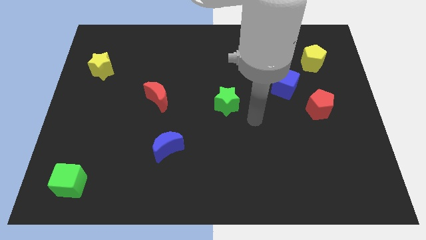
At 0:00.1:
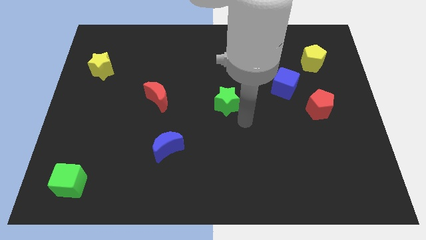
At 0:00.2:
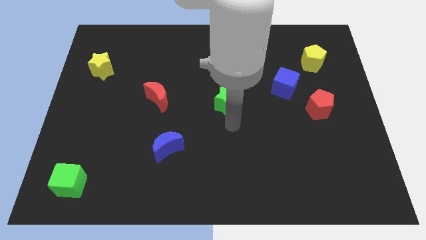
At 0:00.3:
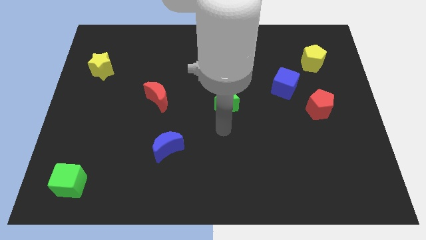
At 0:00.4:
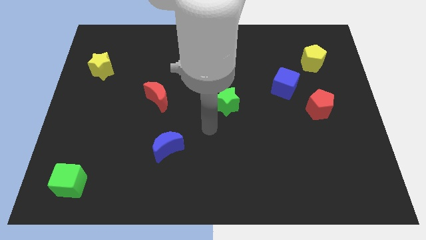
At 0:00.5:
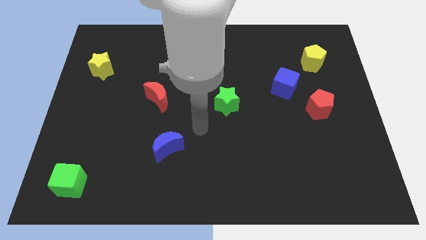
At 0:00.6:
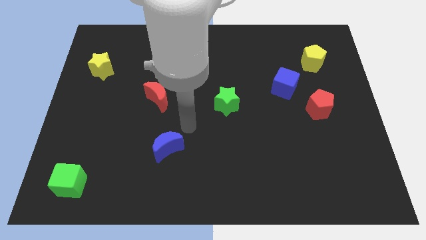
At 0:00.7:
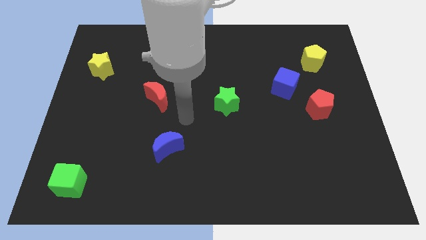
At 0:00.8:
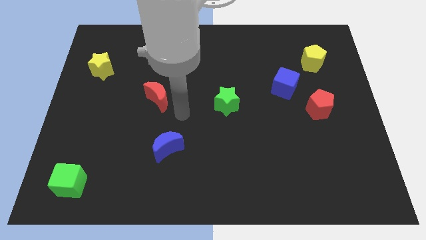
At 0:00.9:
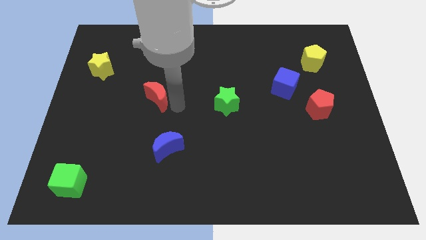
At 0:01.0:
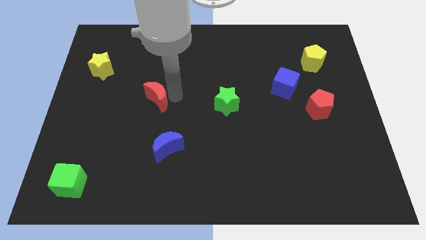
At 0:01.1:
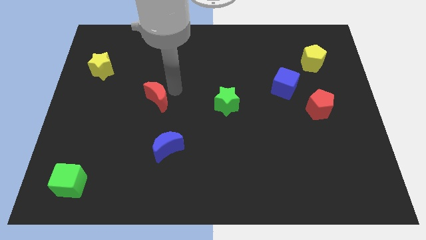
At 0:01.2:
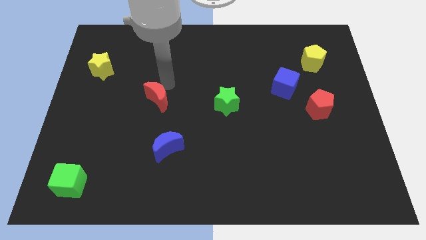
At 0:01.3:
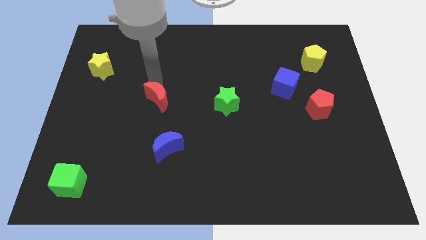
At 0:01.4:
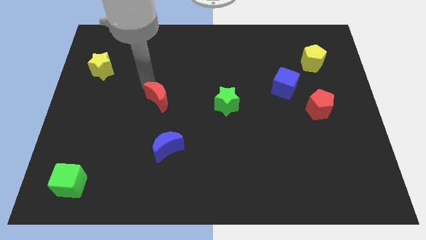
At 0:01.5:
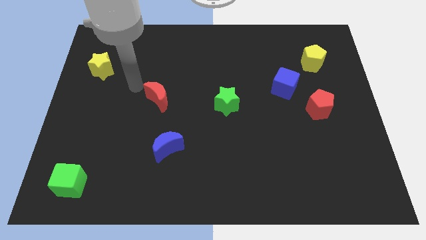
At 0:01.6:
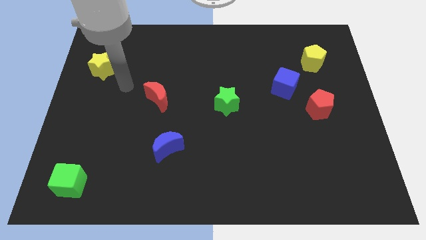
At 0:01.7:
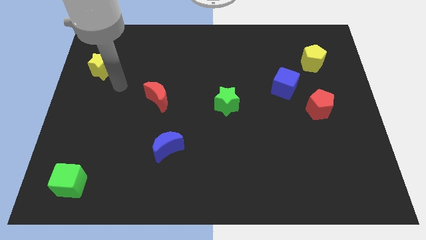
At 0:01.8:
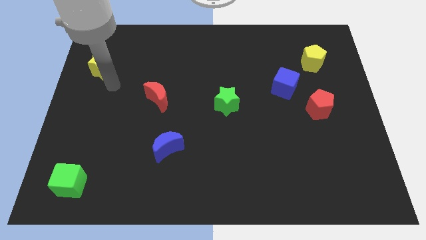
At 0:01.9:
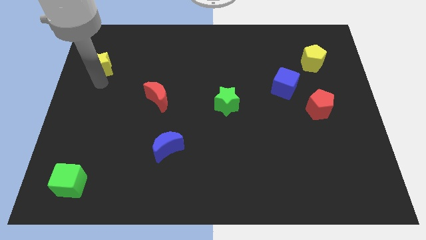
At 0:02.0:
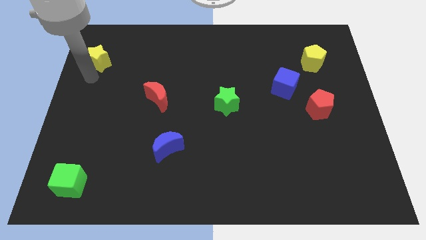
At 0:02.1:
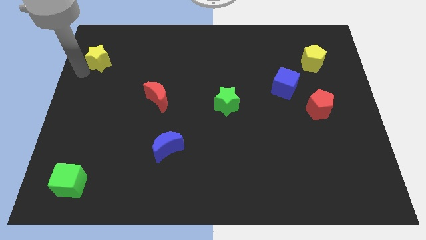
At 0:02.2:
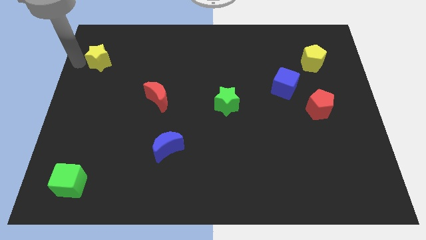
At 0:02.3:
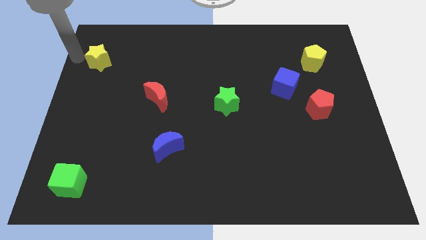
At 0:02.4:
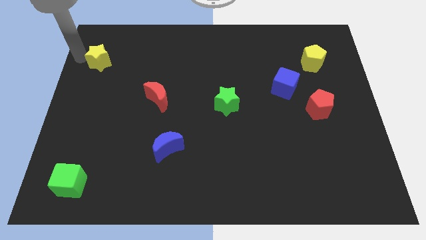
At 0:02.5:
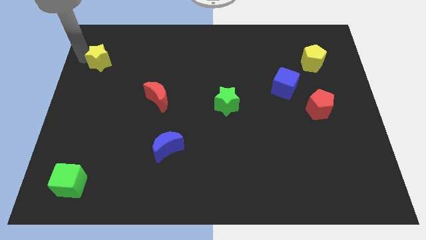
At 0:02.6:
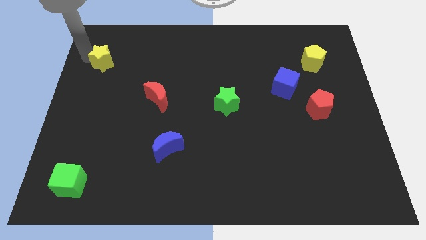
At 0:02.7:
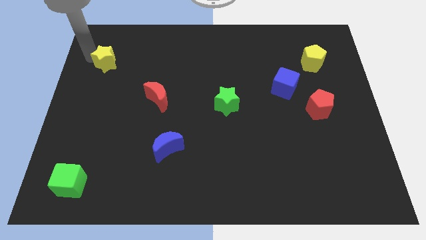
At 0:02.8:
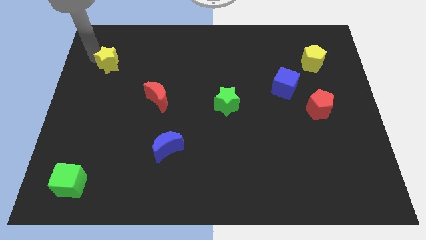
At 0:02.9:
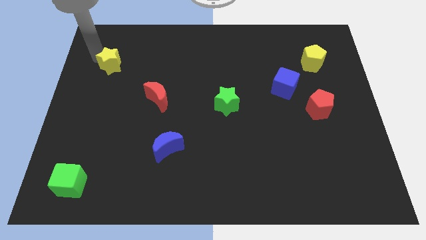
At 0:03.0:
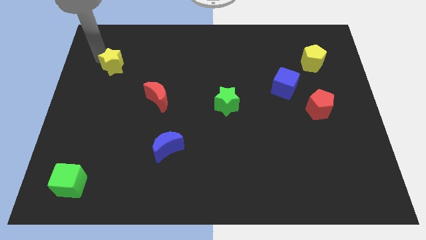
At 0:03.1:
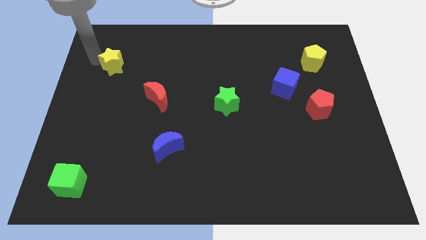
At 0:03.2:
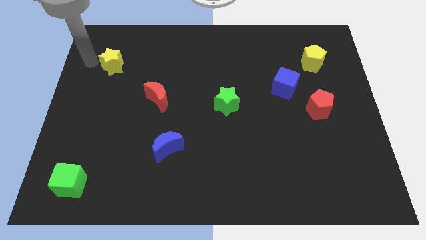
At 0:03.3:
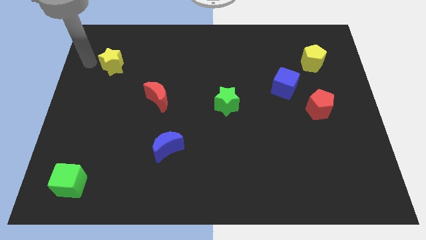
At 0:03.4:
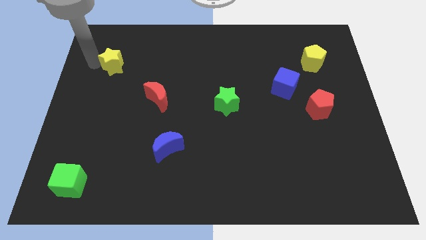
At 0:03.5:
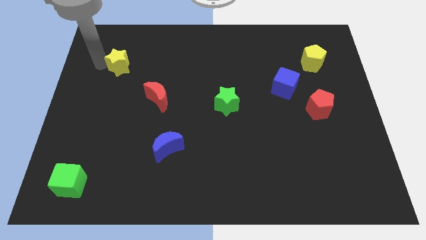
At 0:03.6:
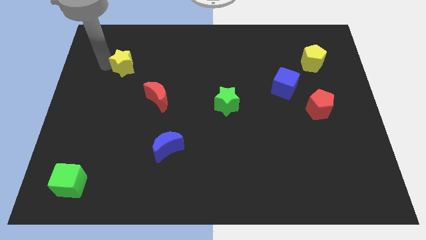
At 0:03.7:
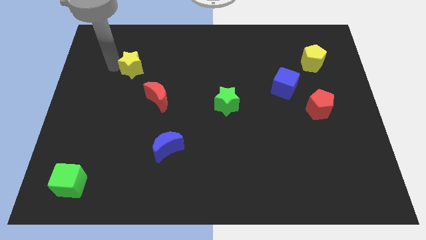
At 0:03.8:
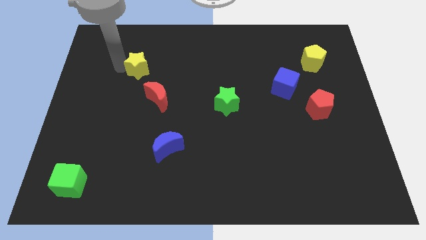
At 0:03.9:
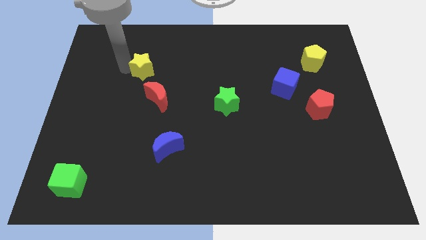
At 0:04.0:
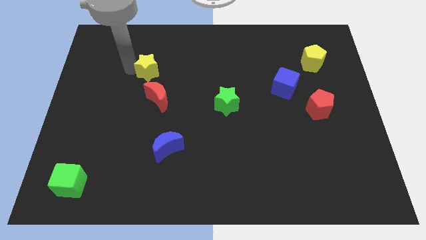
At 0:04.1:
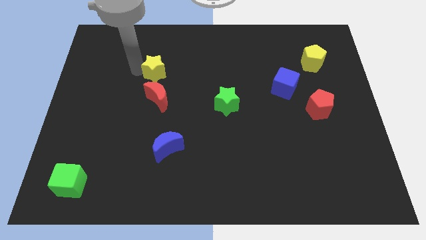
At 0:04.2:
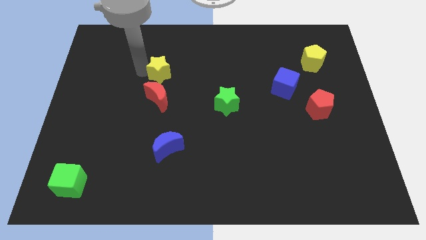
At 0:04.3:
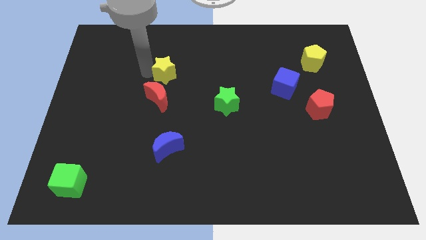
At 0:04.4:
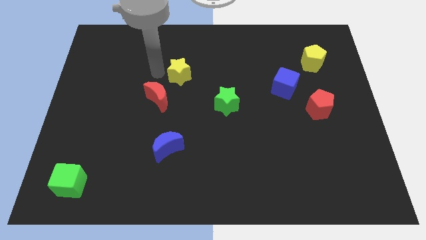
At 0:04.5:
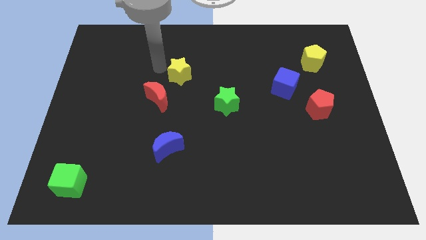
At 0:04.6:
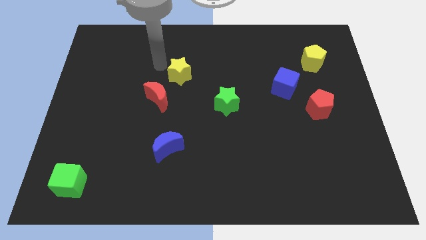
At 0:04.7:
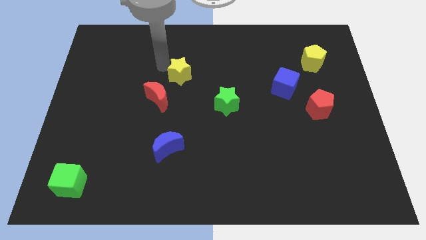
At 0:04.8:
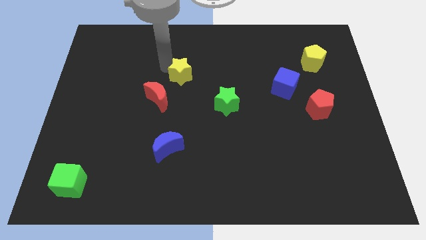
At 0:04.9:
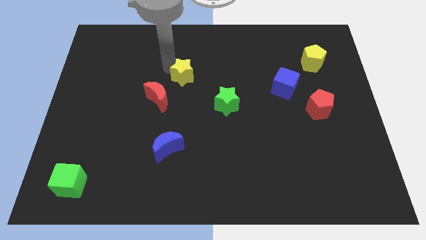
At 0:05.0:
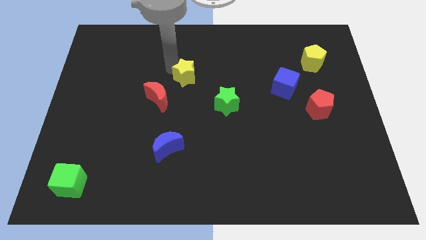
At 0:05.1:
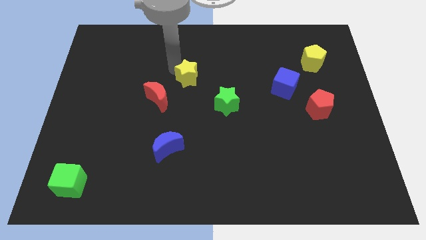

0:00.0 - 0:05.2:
put the yellow star to the top left of the green star

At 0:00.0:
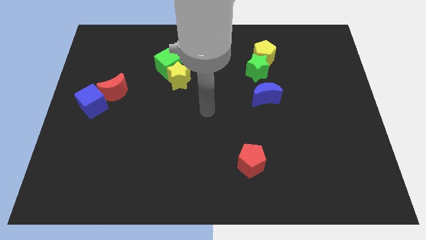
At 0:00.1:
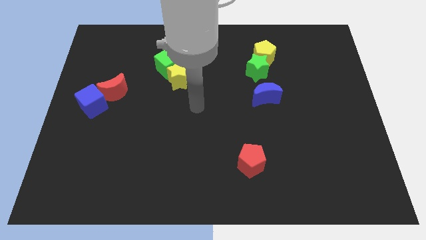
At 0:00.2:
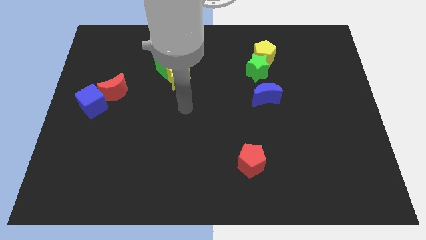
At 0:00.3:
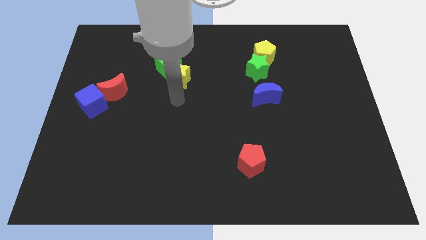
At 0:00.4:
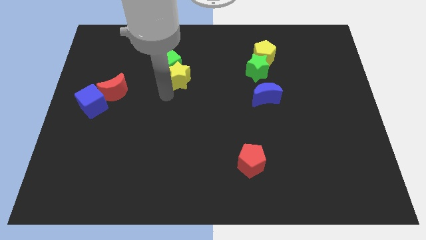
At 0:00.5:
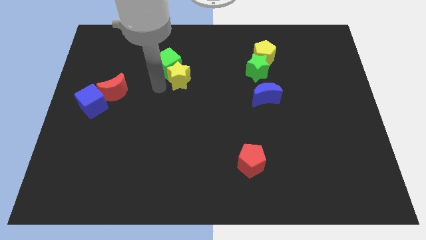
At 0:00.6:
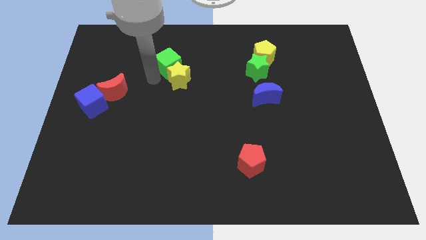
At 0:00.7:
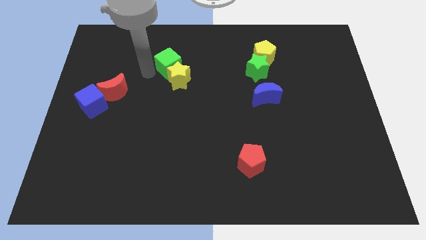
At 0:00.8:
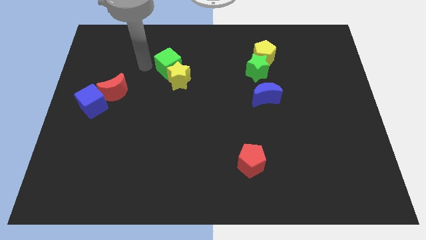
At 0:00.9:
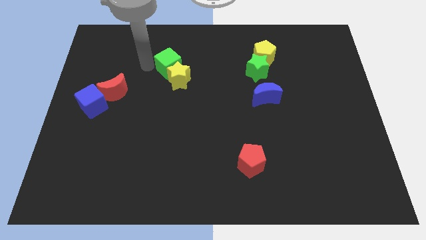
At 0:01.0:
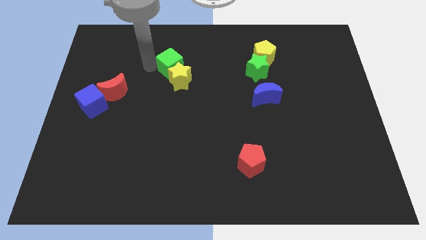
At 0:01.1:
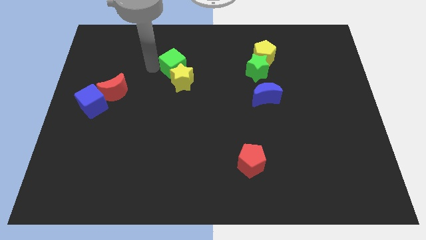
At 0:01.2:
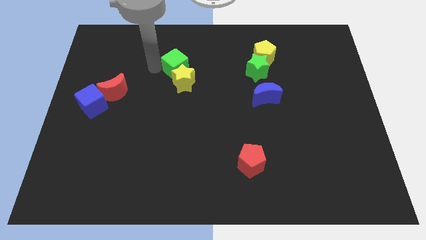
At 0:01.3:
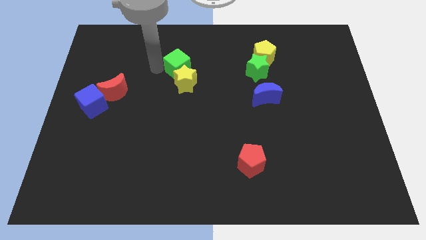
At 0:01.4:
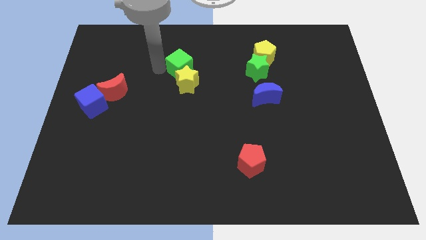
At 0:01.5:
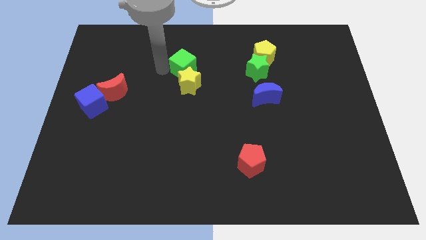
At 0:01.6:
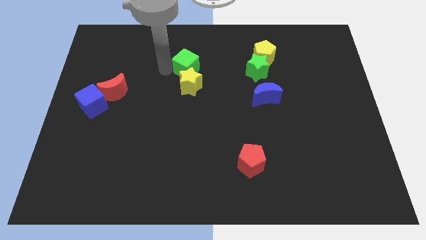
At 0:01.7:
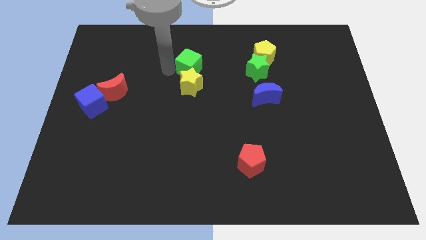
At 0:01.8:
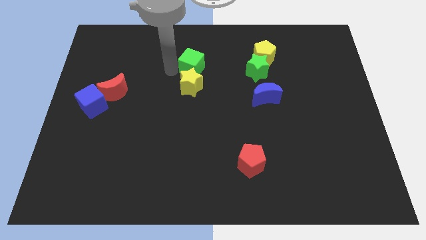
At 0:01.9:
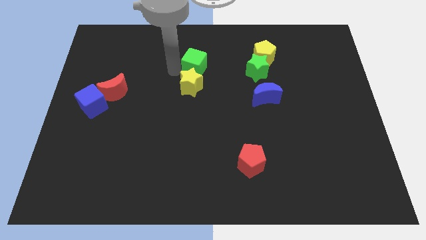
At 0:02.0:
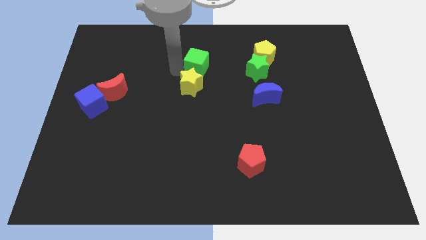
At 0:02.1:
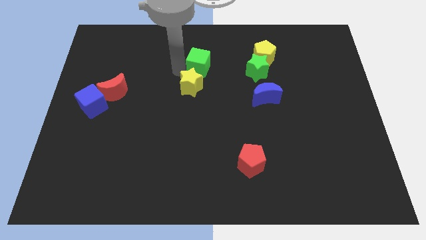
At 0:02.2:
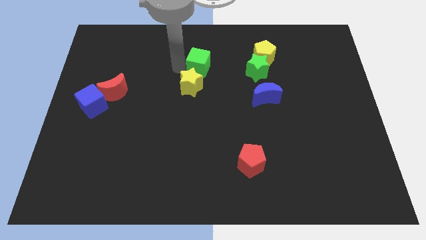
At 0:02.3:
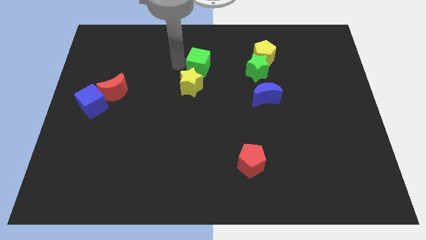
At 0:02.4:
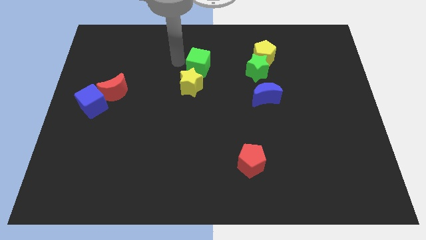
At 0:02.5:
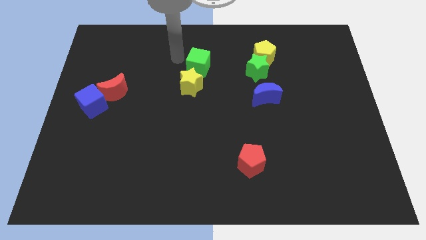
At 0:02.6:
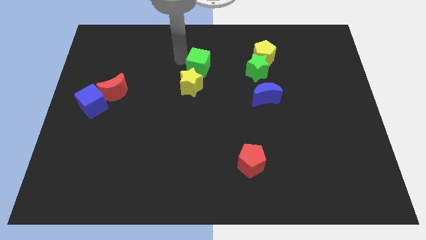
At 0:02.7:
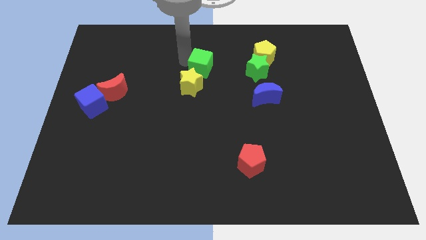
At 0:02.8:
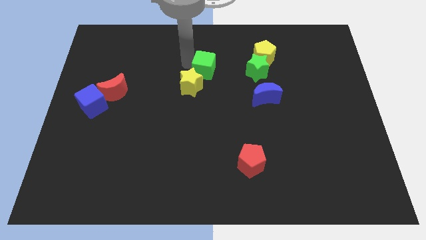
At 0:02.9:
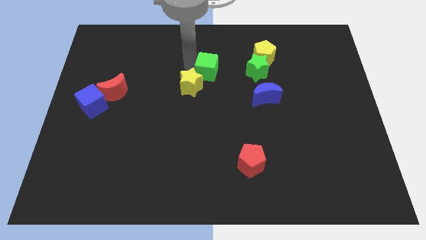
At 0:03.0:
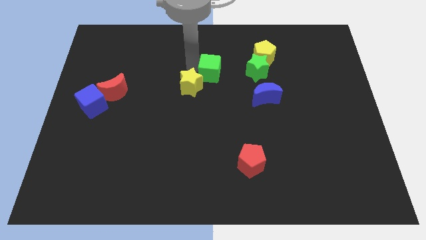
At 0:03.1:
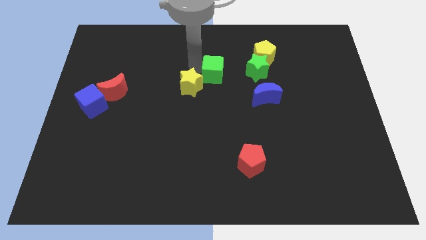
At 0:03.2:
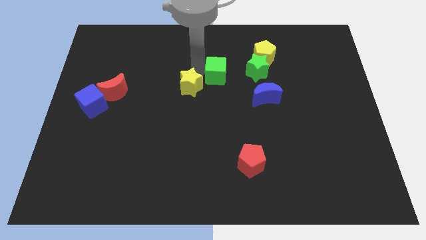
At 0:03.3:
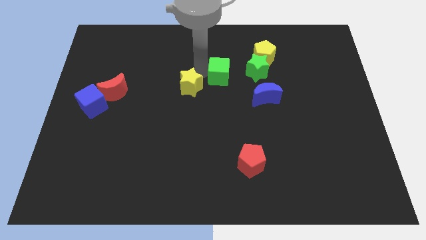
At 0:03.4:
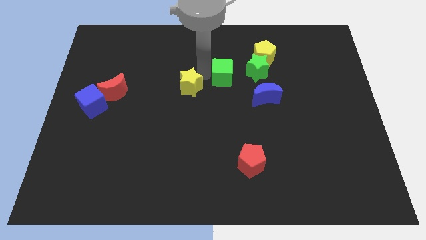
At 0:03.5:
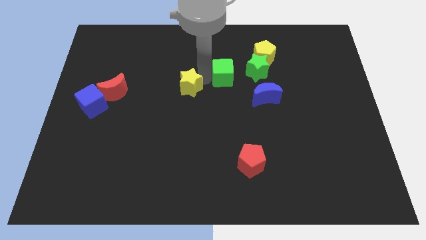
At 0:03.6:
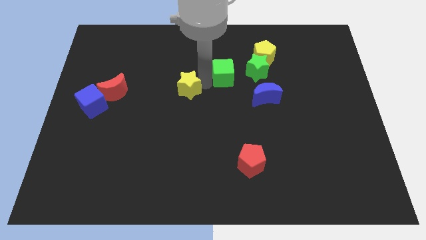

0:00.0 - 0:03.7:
move the green cube diagonally down and to the left of the yellow pentagon
